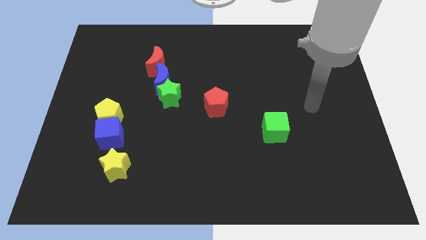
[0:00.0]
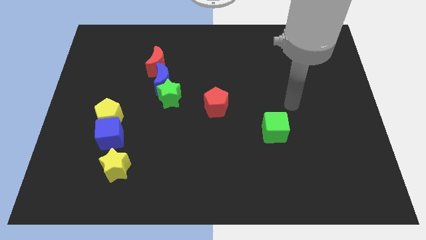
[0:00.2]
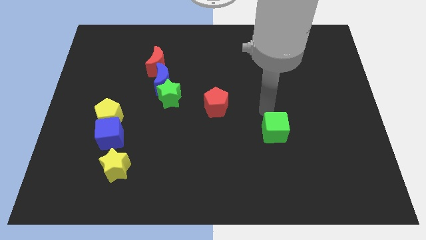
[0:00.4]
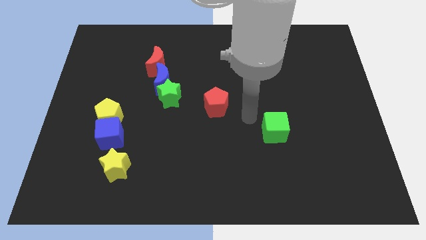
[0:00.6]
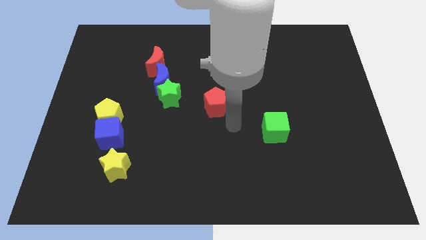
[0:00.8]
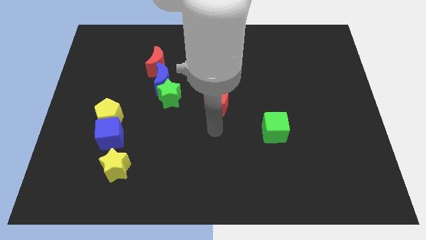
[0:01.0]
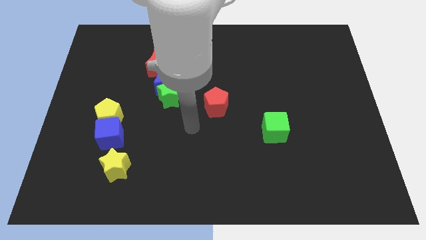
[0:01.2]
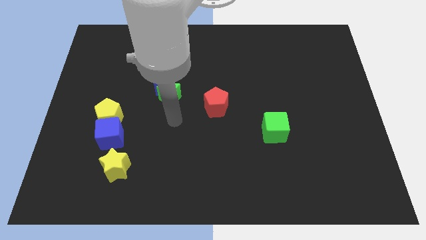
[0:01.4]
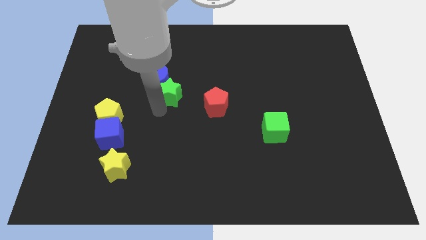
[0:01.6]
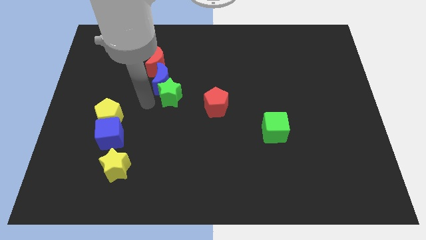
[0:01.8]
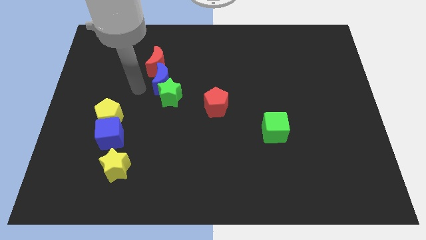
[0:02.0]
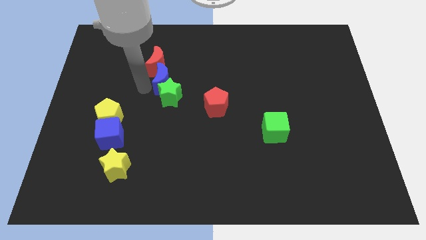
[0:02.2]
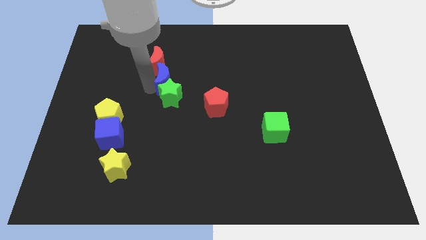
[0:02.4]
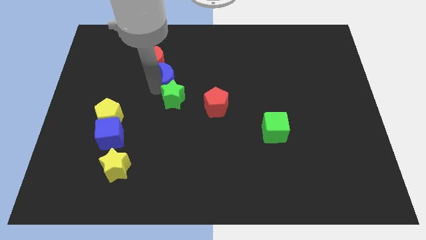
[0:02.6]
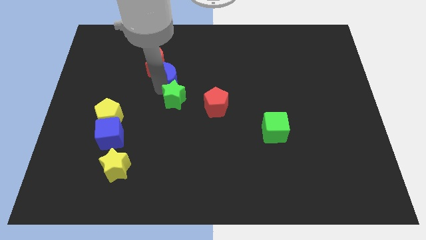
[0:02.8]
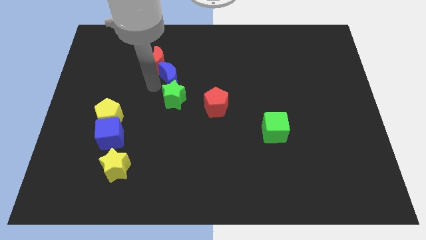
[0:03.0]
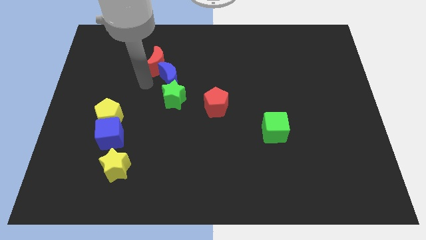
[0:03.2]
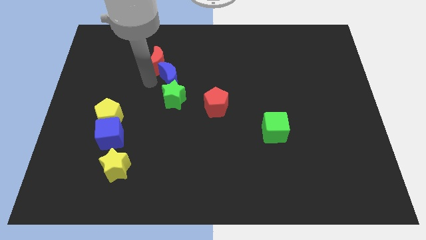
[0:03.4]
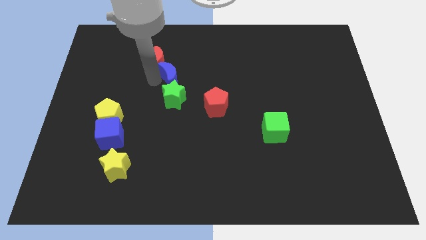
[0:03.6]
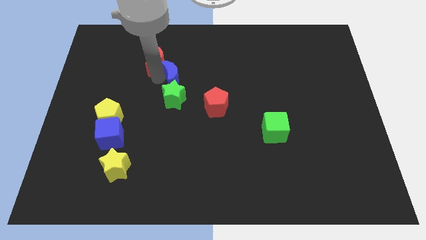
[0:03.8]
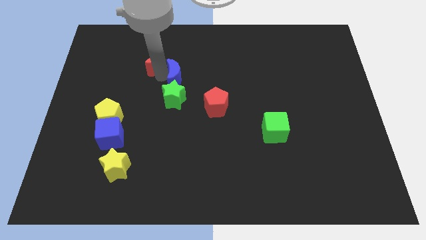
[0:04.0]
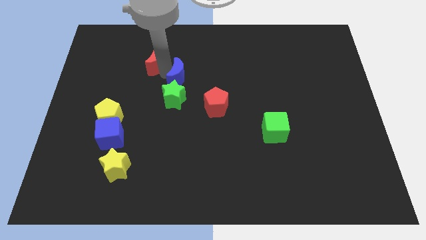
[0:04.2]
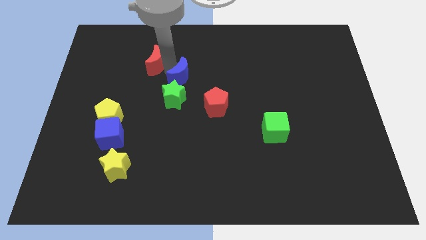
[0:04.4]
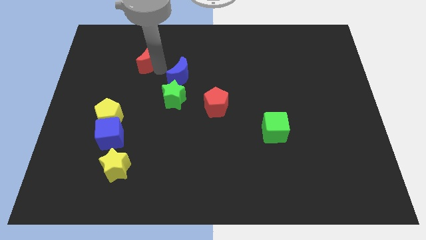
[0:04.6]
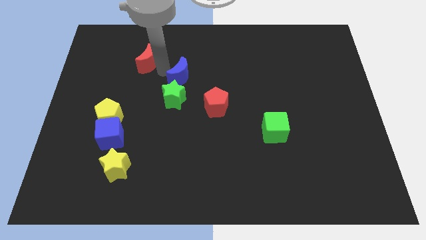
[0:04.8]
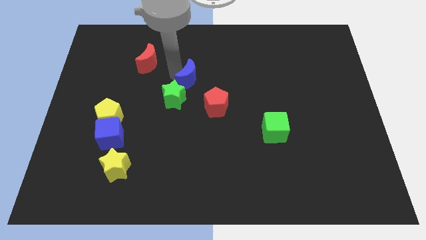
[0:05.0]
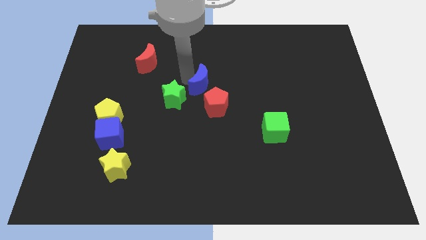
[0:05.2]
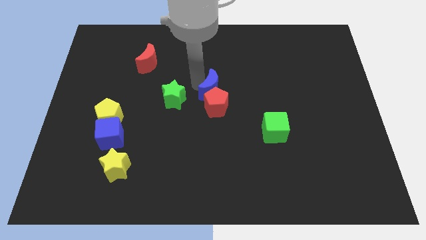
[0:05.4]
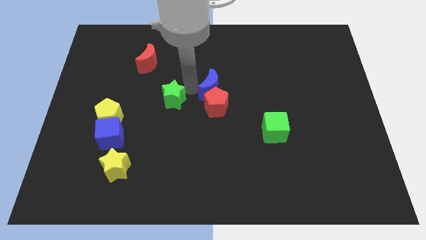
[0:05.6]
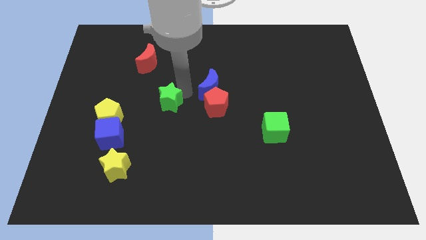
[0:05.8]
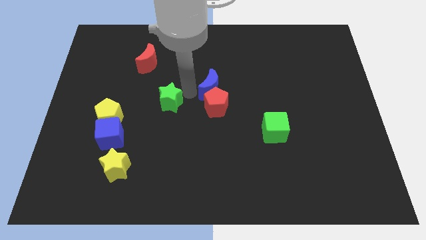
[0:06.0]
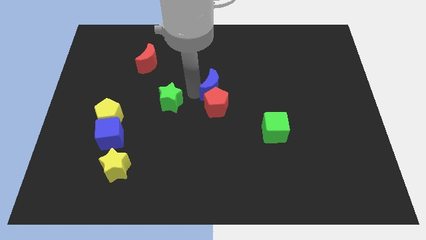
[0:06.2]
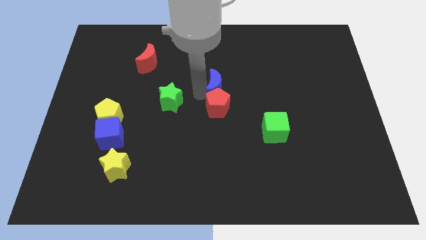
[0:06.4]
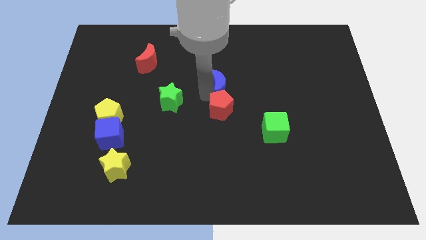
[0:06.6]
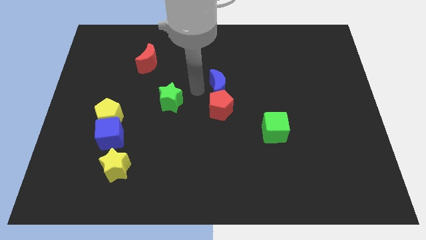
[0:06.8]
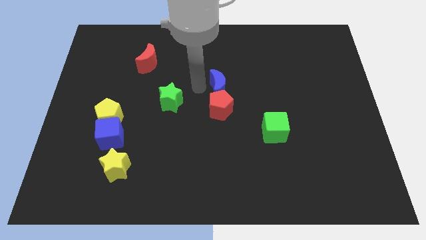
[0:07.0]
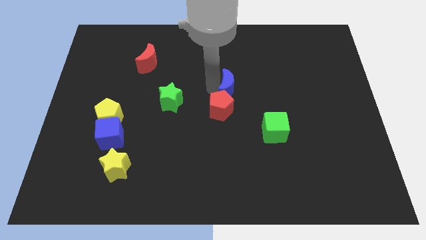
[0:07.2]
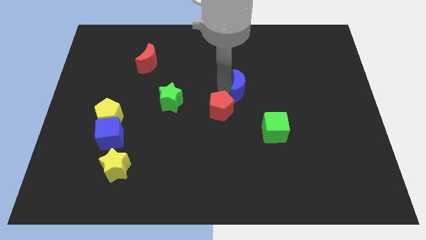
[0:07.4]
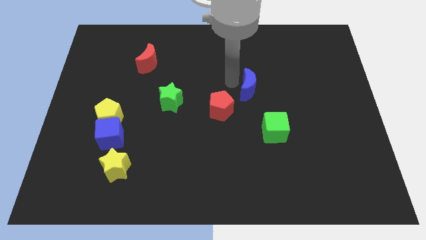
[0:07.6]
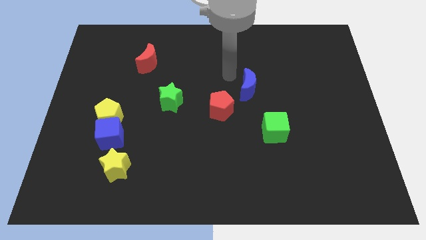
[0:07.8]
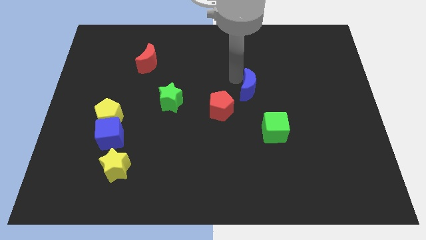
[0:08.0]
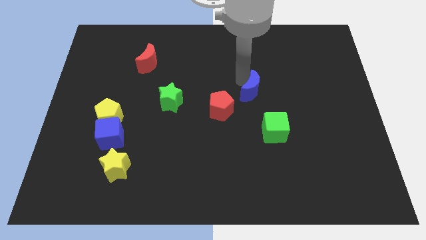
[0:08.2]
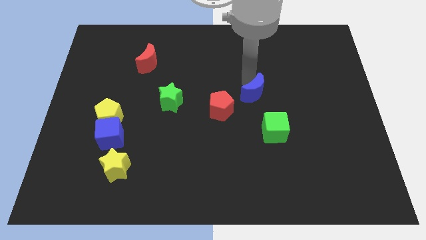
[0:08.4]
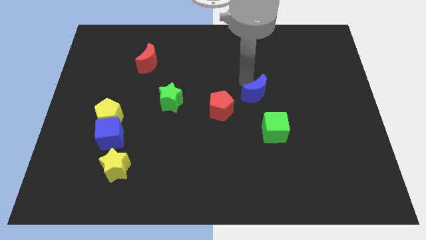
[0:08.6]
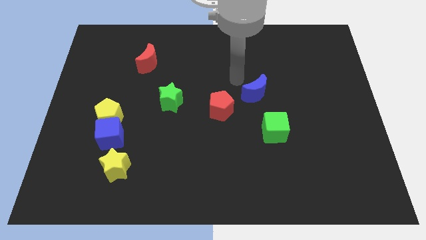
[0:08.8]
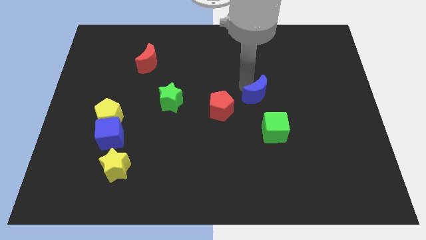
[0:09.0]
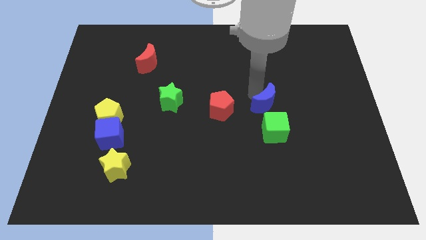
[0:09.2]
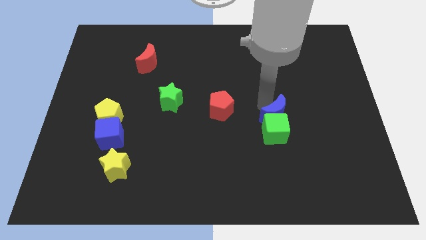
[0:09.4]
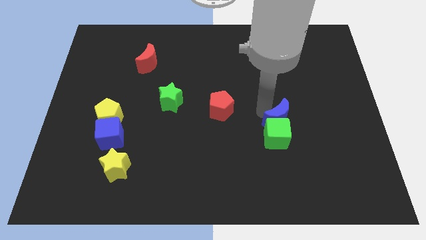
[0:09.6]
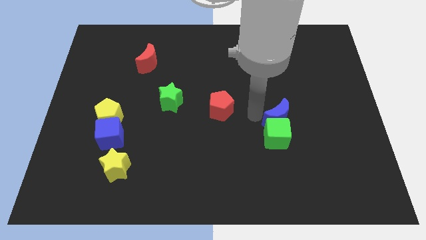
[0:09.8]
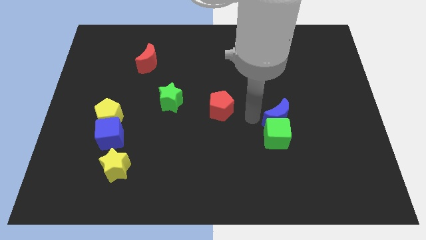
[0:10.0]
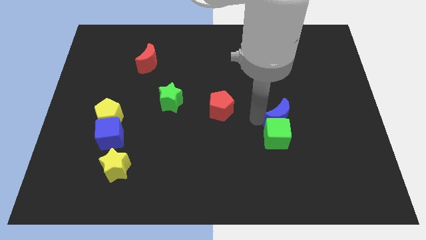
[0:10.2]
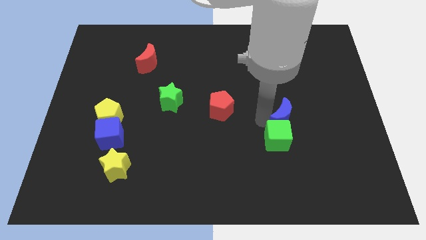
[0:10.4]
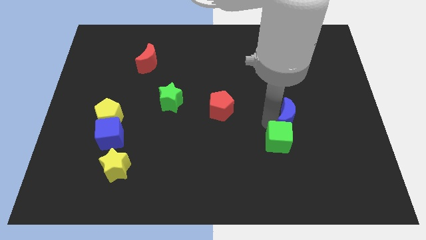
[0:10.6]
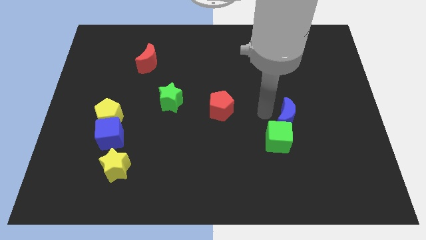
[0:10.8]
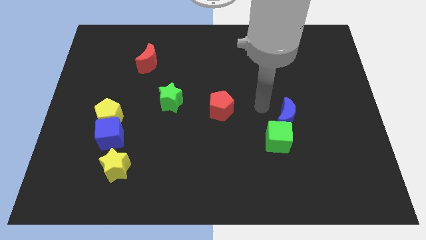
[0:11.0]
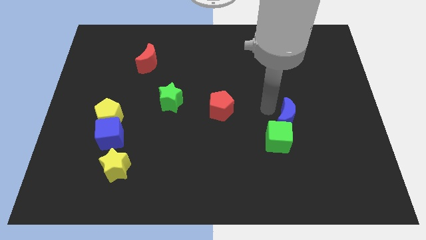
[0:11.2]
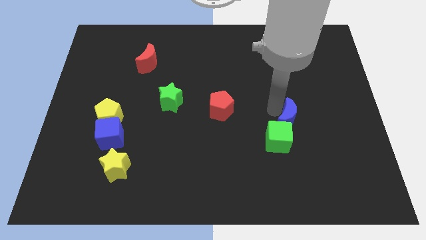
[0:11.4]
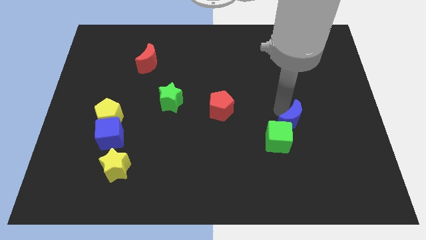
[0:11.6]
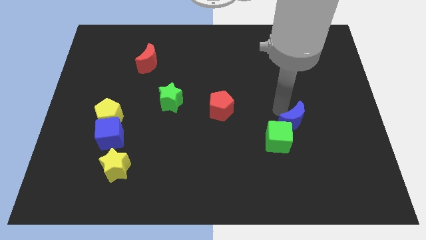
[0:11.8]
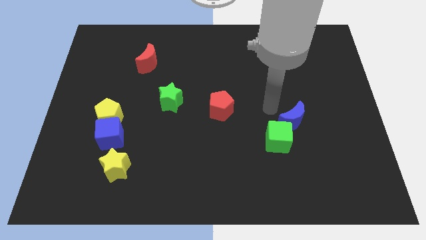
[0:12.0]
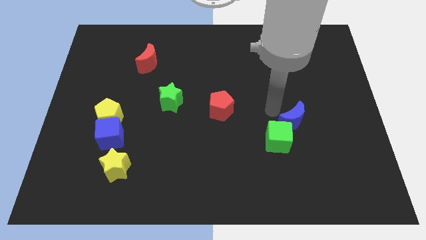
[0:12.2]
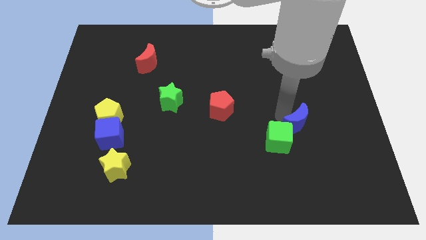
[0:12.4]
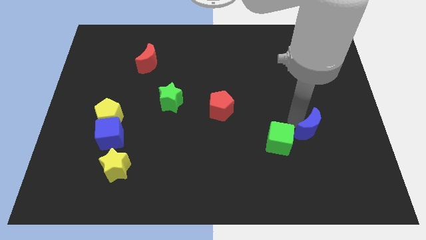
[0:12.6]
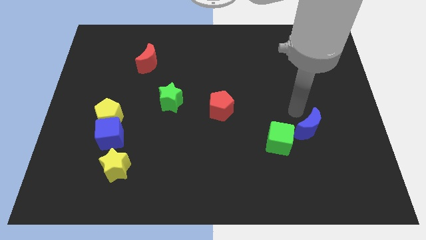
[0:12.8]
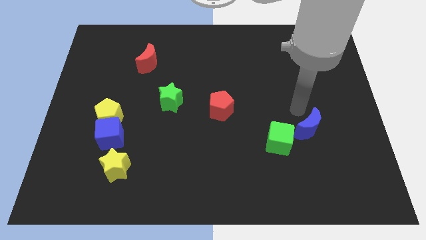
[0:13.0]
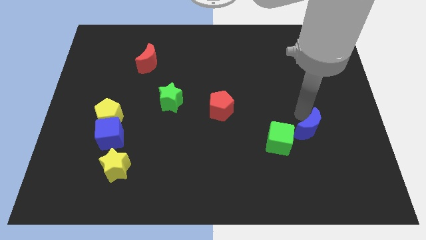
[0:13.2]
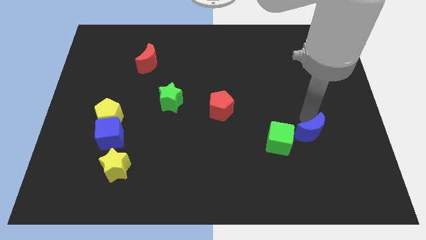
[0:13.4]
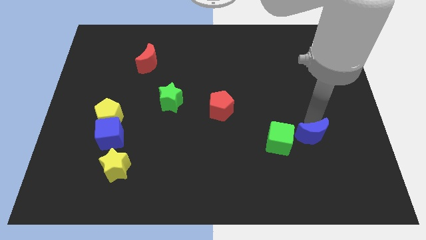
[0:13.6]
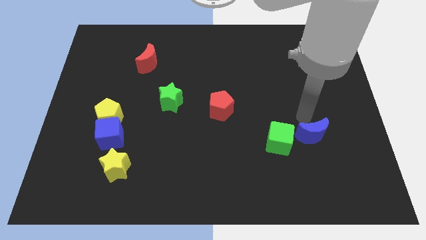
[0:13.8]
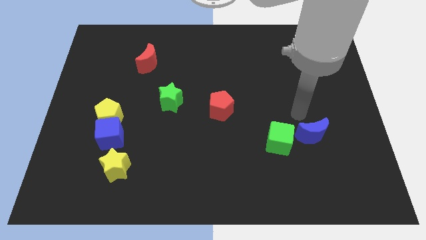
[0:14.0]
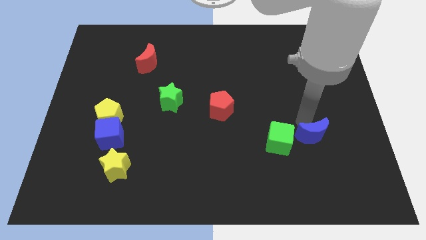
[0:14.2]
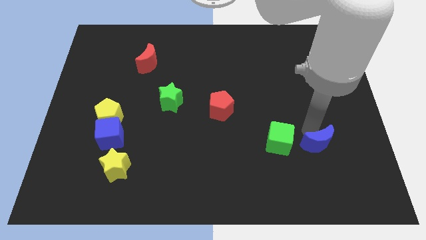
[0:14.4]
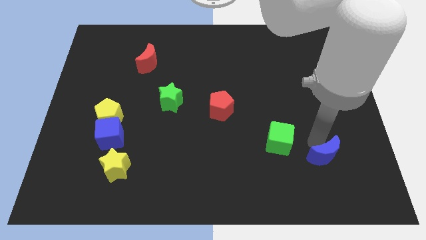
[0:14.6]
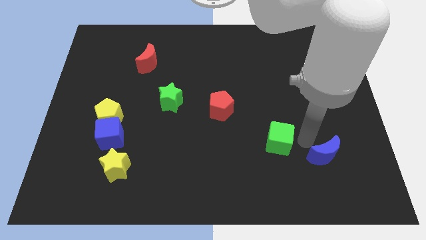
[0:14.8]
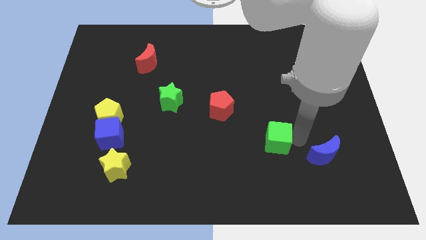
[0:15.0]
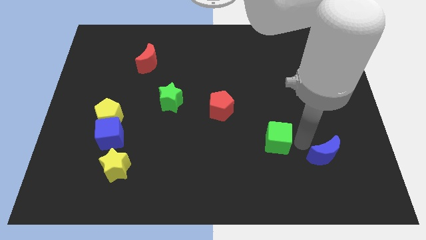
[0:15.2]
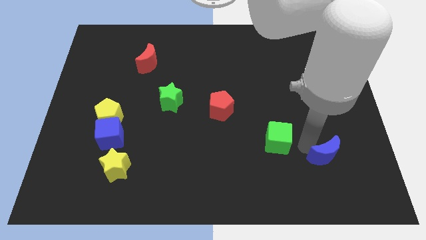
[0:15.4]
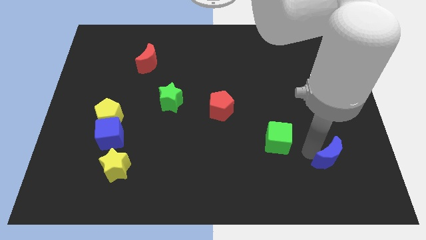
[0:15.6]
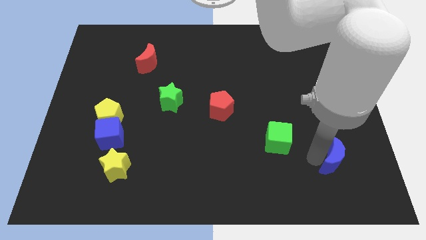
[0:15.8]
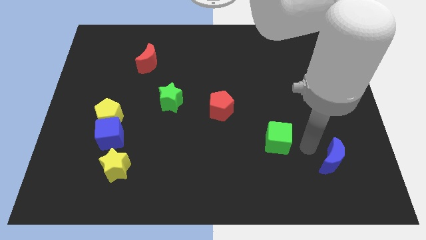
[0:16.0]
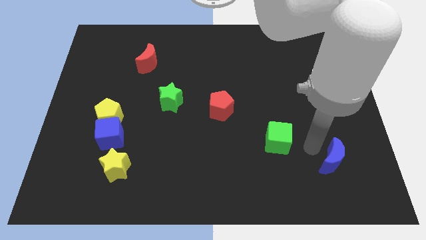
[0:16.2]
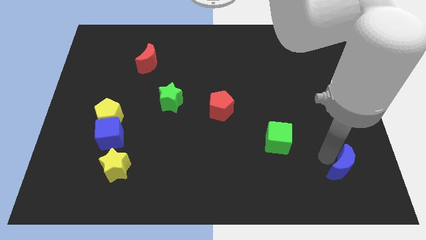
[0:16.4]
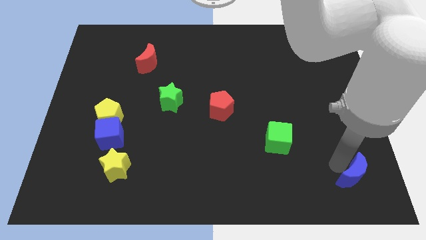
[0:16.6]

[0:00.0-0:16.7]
slide the blue moon to the bottom right corner

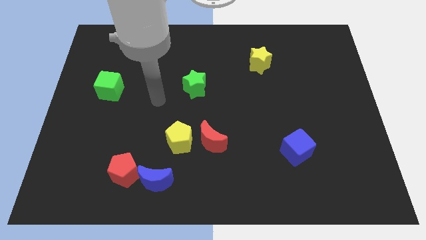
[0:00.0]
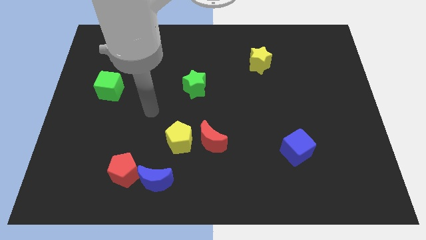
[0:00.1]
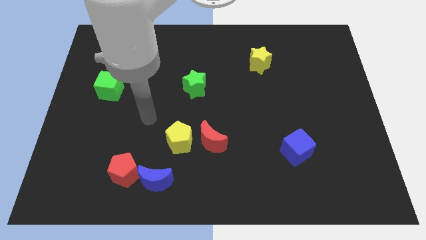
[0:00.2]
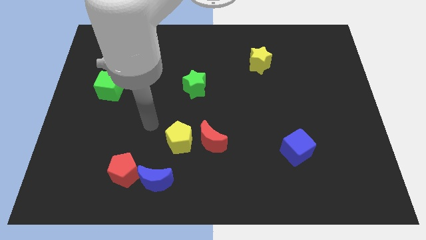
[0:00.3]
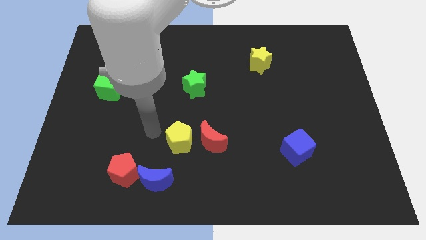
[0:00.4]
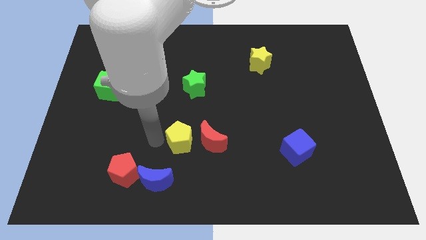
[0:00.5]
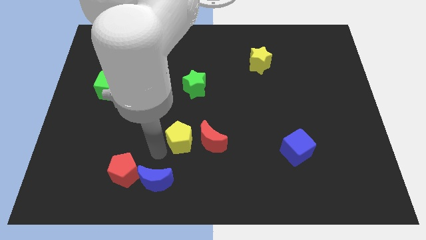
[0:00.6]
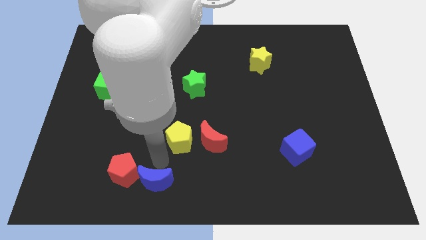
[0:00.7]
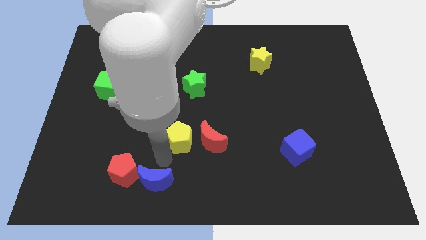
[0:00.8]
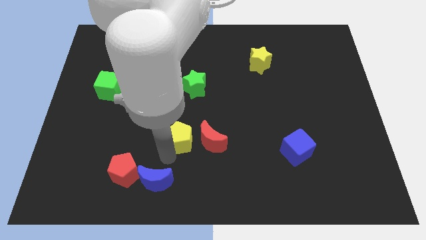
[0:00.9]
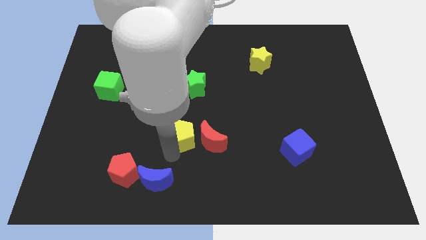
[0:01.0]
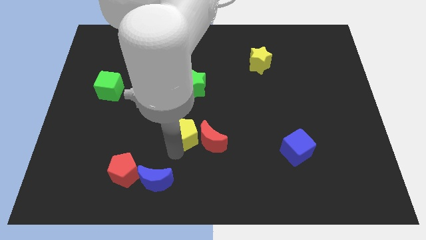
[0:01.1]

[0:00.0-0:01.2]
put the yellow pentagon to the middle of the board
